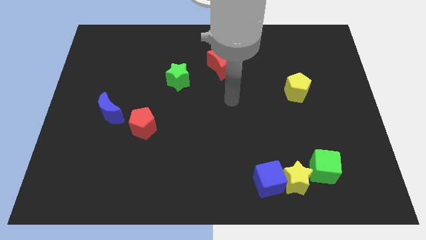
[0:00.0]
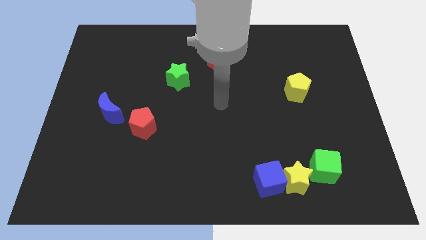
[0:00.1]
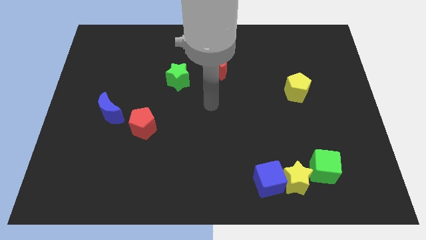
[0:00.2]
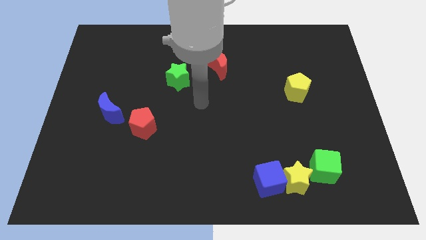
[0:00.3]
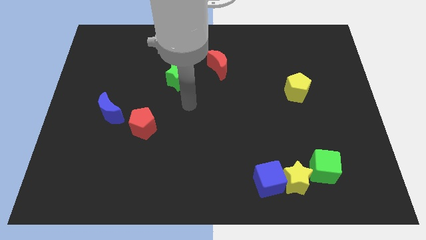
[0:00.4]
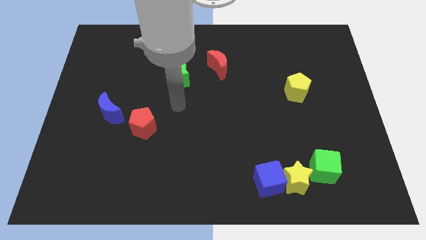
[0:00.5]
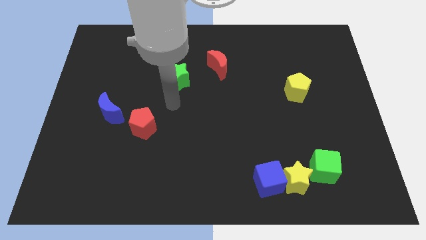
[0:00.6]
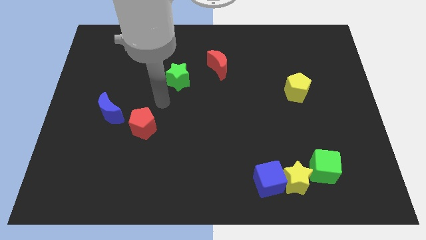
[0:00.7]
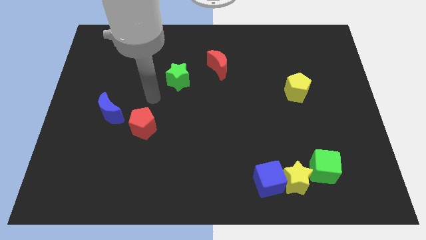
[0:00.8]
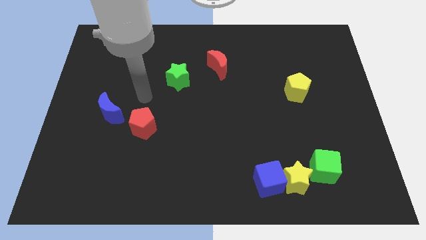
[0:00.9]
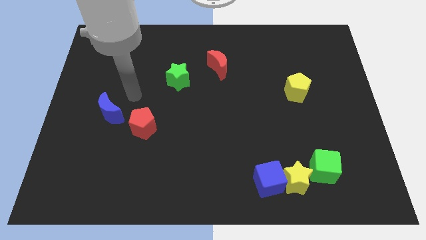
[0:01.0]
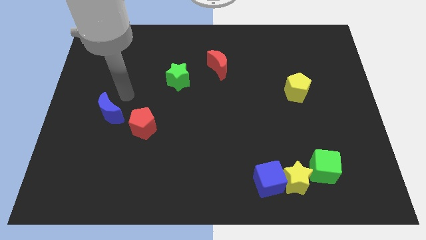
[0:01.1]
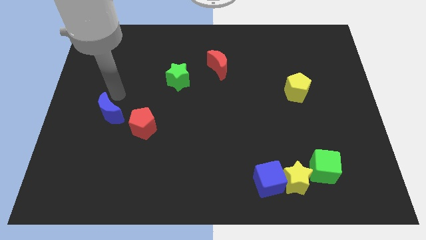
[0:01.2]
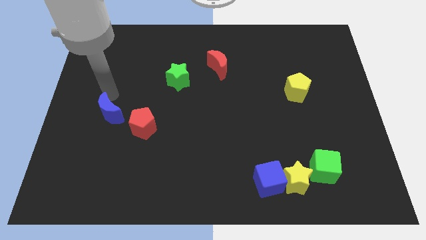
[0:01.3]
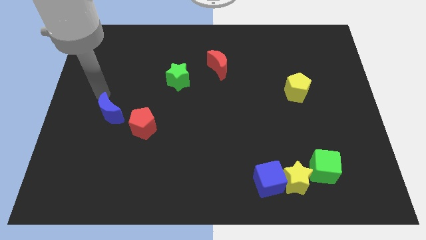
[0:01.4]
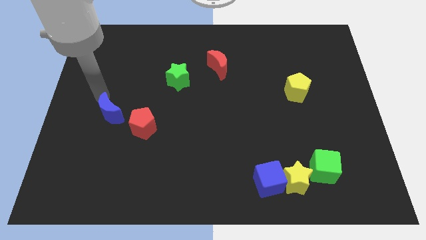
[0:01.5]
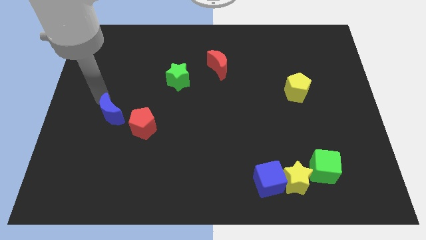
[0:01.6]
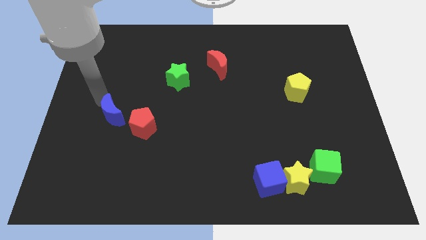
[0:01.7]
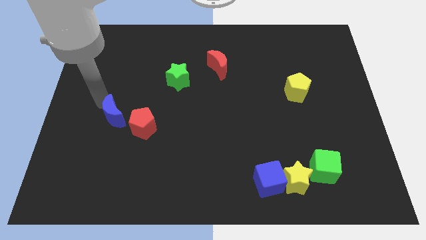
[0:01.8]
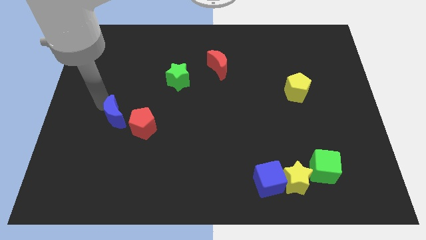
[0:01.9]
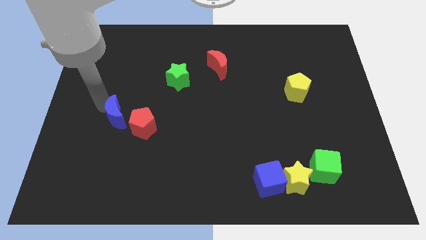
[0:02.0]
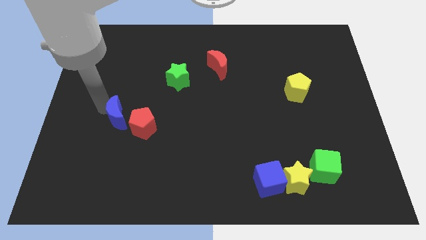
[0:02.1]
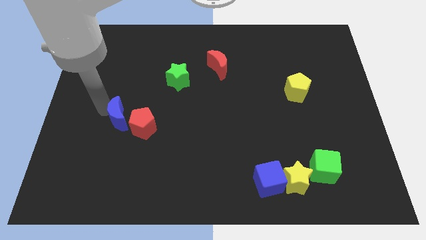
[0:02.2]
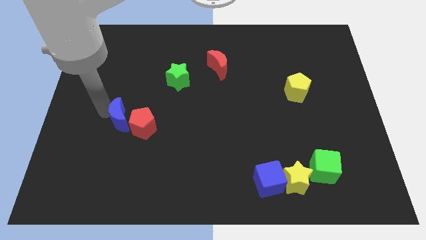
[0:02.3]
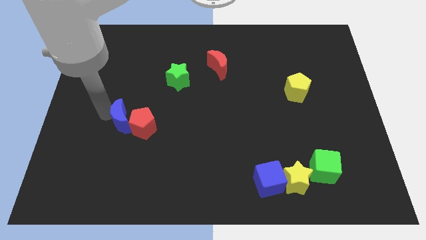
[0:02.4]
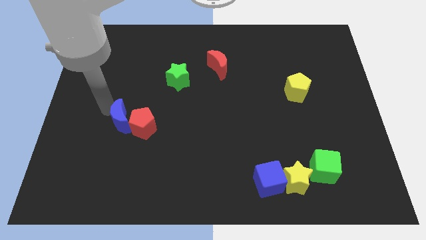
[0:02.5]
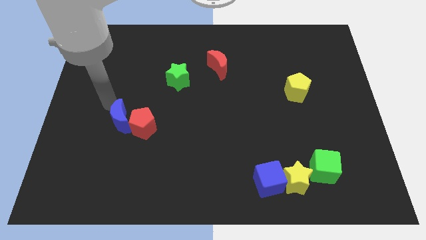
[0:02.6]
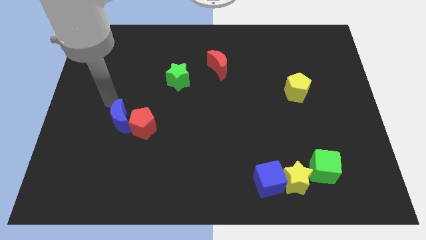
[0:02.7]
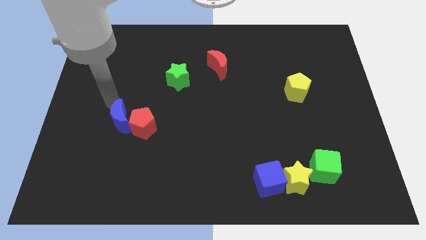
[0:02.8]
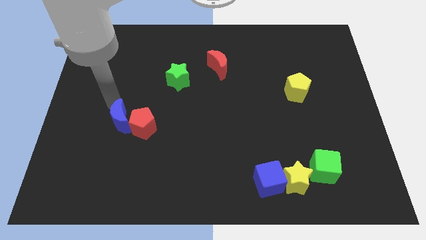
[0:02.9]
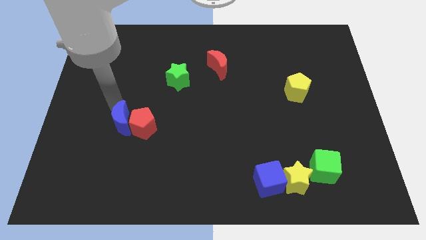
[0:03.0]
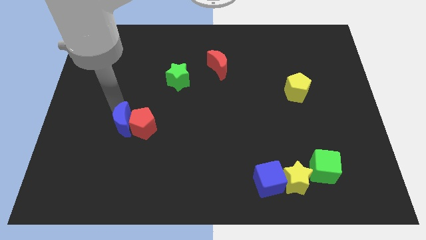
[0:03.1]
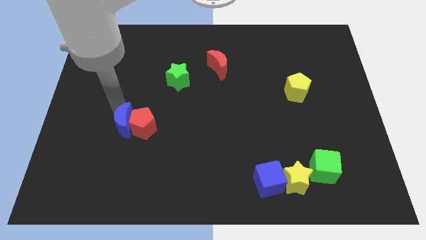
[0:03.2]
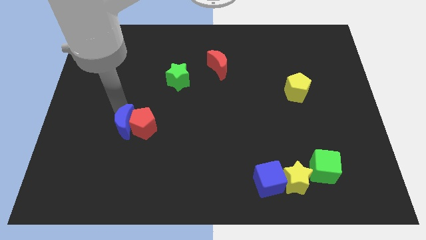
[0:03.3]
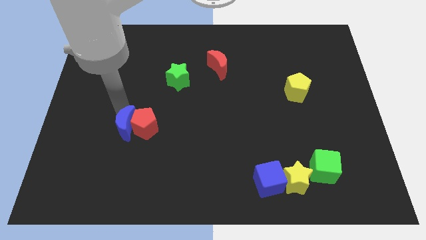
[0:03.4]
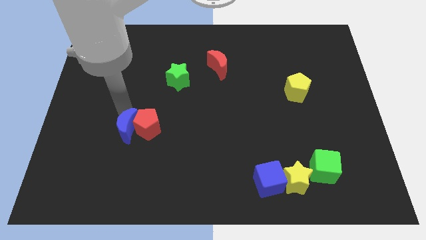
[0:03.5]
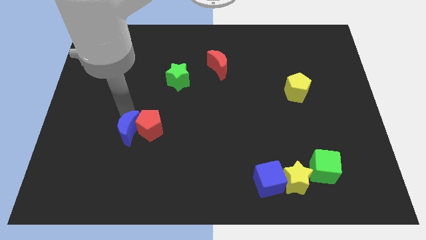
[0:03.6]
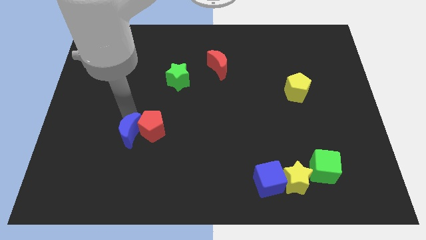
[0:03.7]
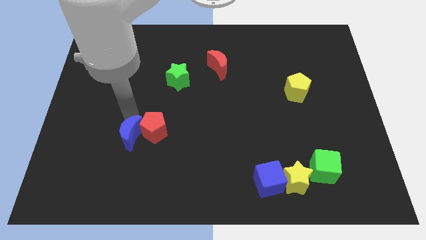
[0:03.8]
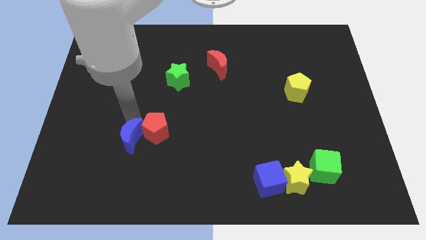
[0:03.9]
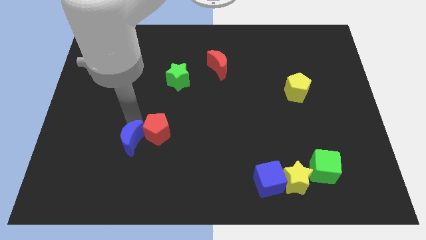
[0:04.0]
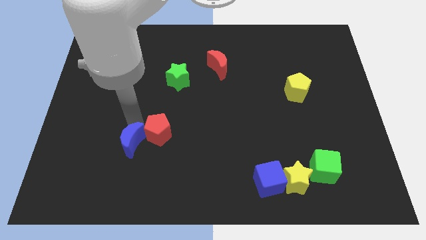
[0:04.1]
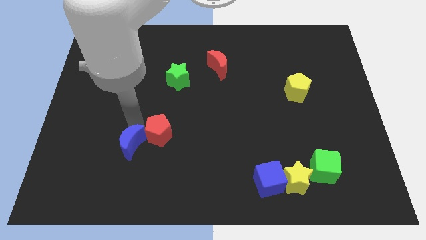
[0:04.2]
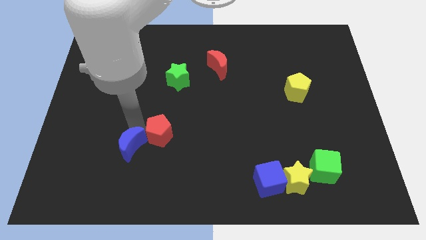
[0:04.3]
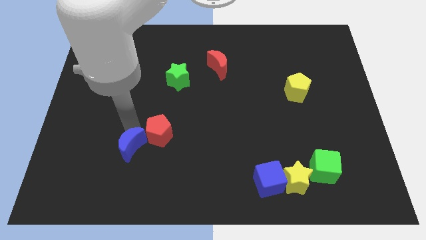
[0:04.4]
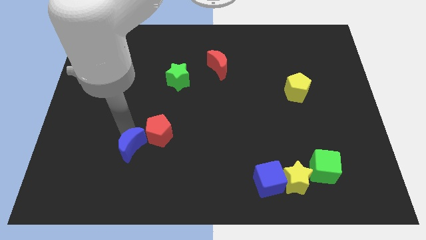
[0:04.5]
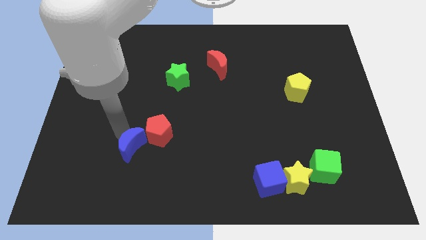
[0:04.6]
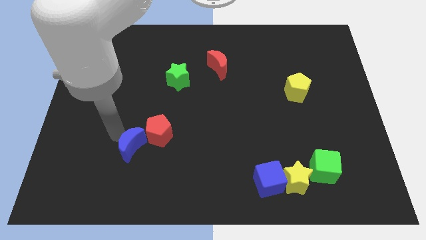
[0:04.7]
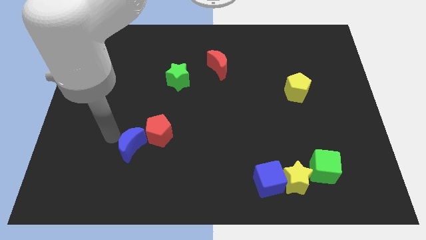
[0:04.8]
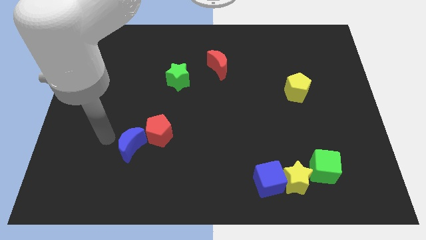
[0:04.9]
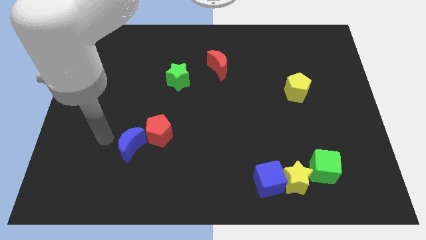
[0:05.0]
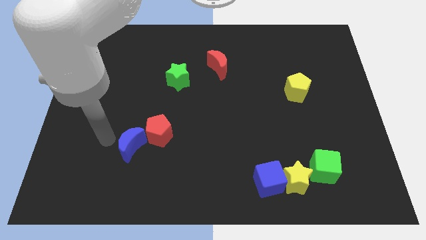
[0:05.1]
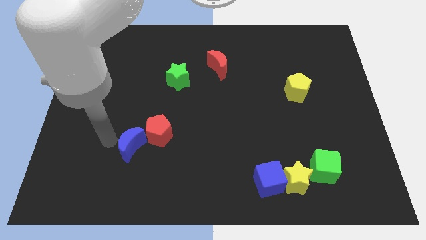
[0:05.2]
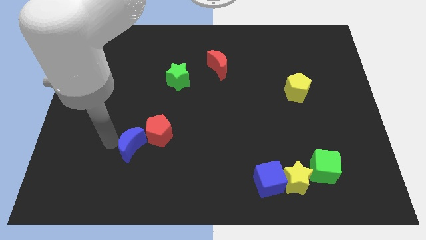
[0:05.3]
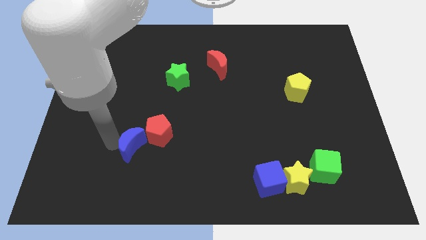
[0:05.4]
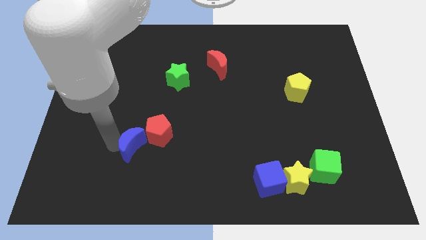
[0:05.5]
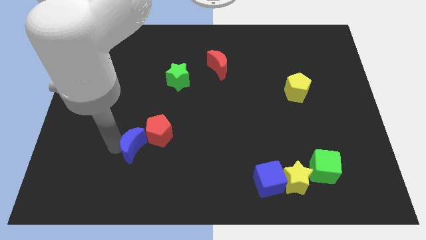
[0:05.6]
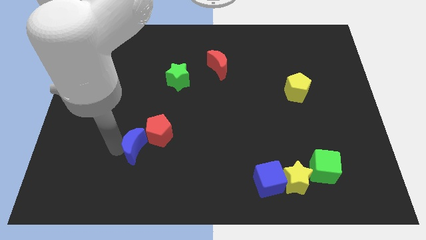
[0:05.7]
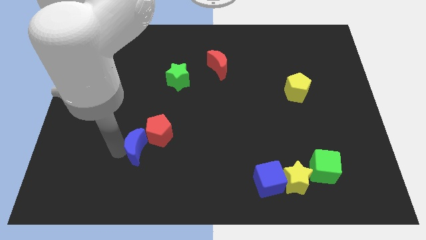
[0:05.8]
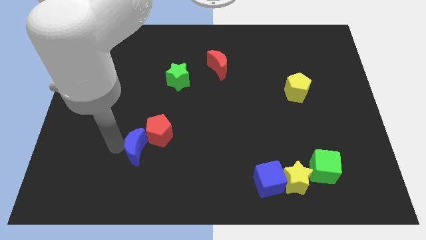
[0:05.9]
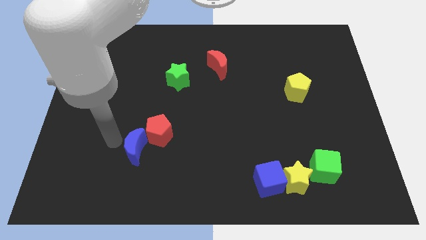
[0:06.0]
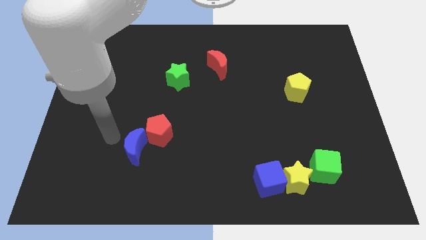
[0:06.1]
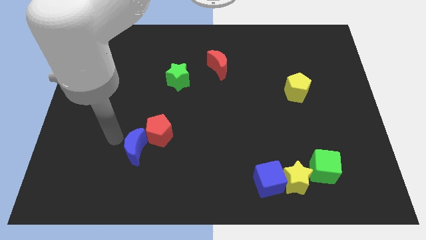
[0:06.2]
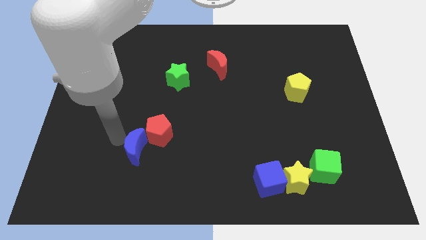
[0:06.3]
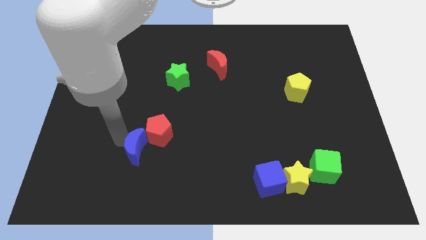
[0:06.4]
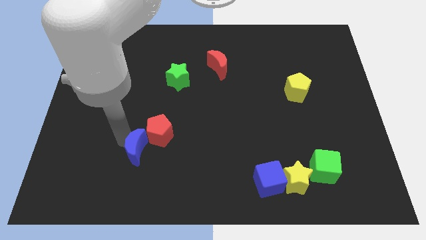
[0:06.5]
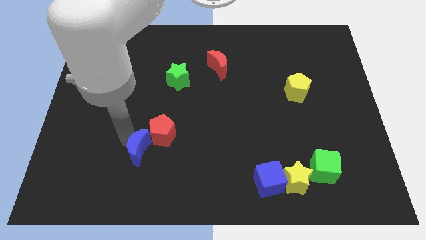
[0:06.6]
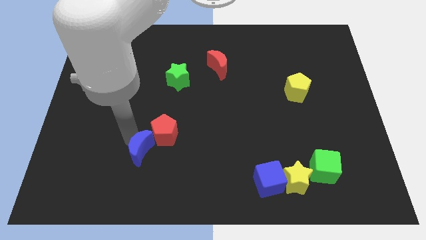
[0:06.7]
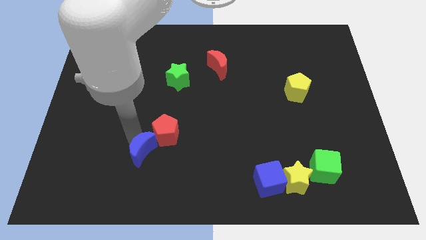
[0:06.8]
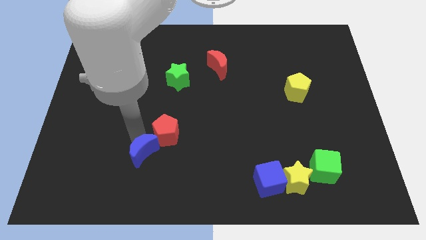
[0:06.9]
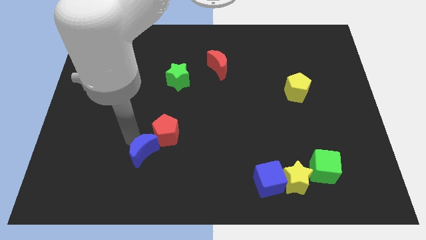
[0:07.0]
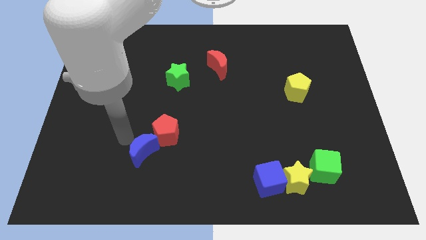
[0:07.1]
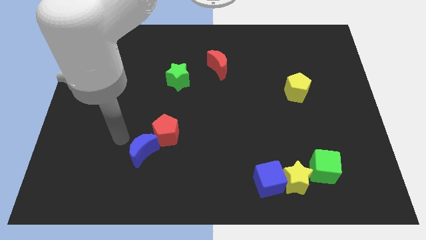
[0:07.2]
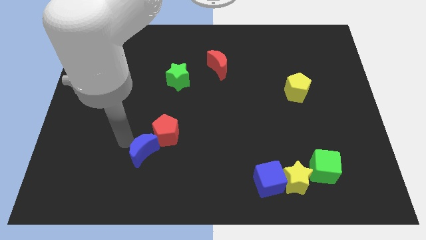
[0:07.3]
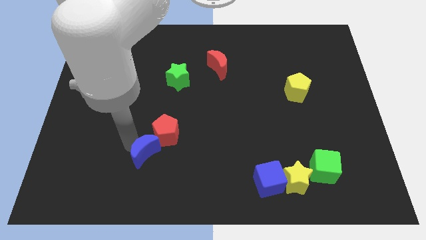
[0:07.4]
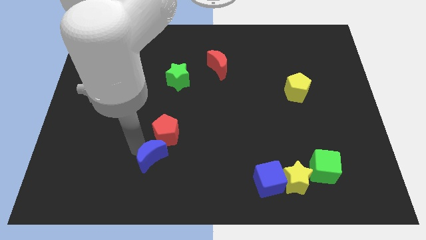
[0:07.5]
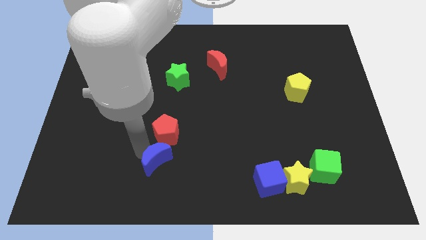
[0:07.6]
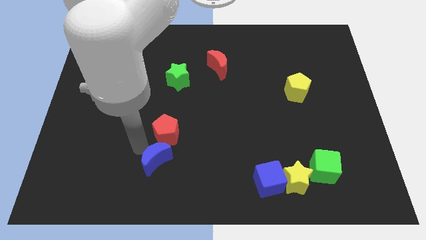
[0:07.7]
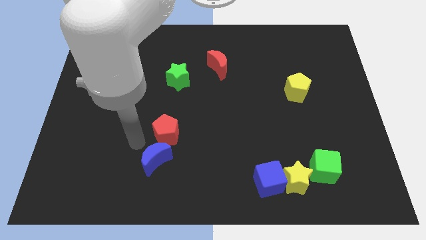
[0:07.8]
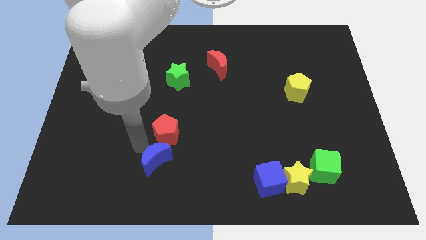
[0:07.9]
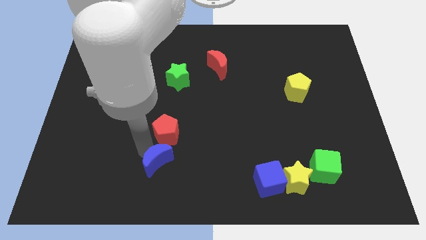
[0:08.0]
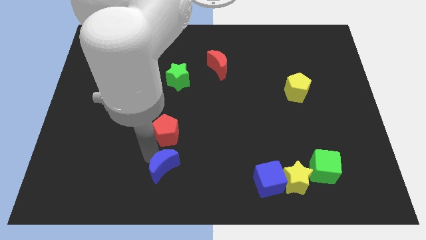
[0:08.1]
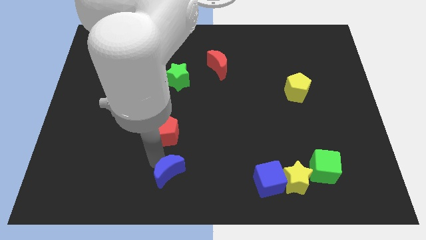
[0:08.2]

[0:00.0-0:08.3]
push the blue moon to the bottom
